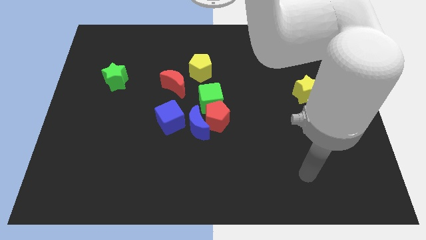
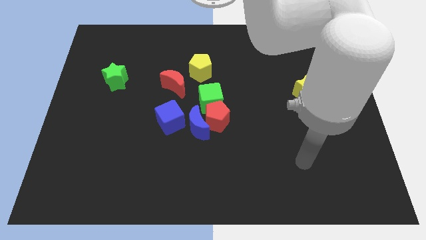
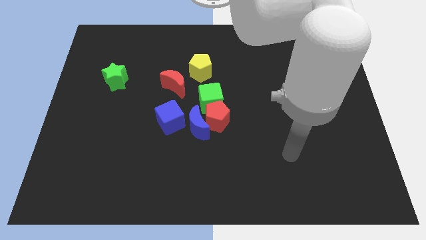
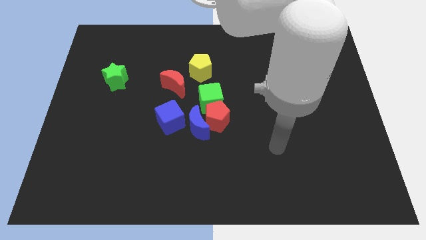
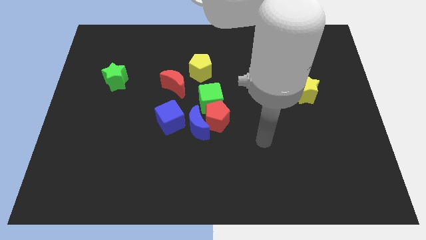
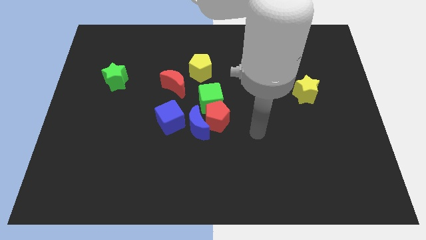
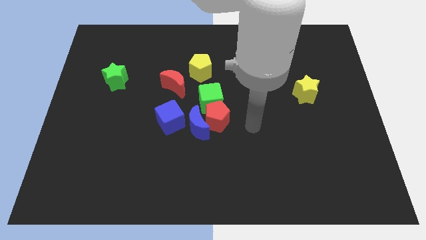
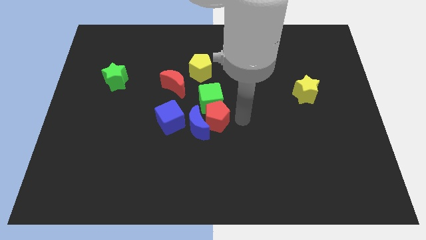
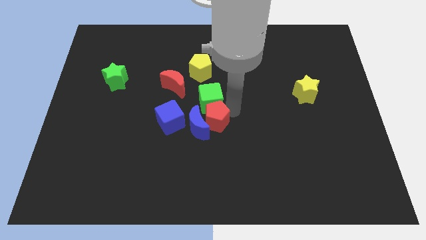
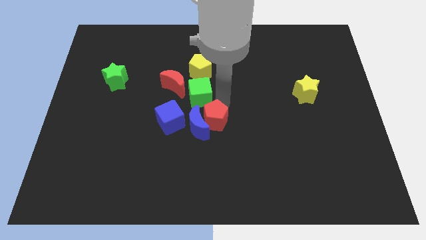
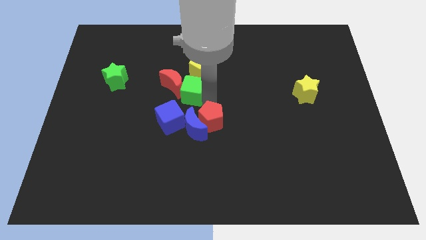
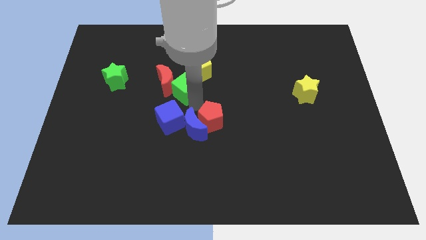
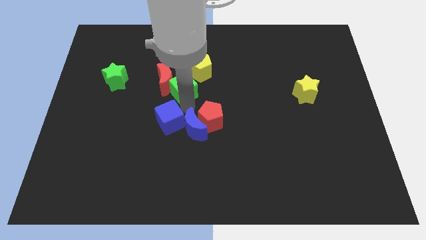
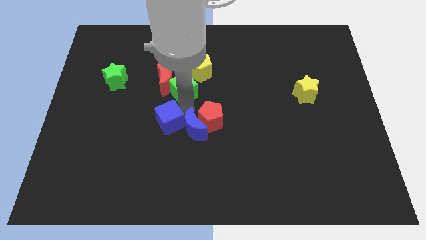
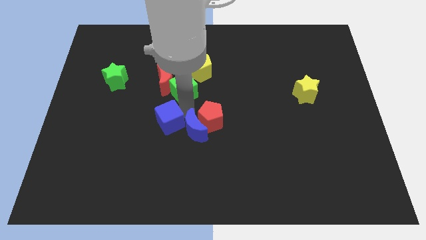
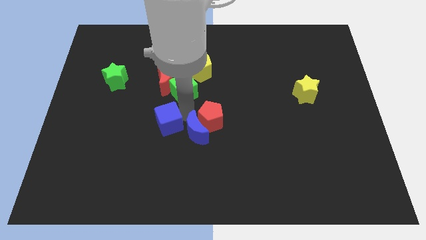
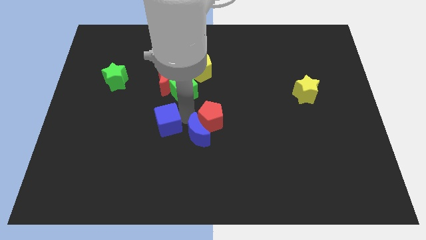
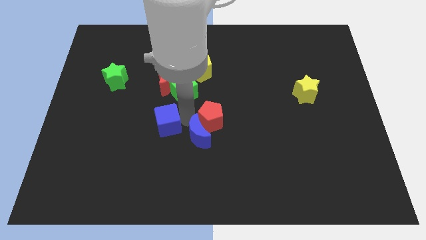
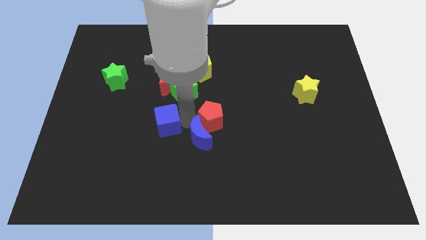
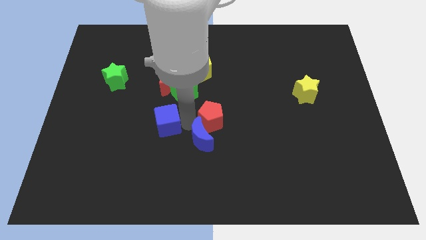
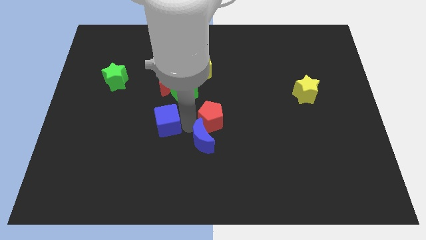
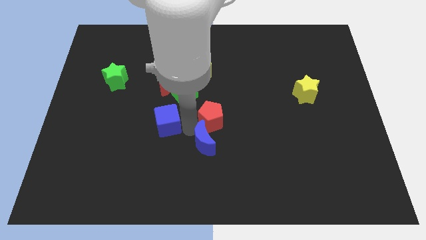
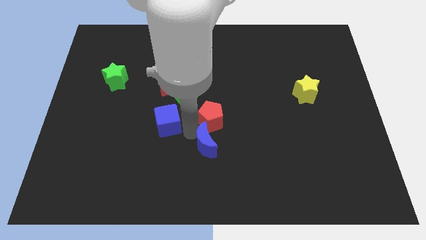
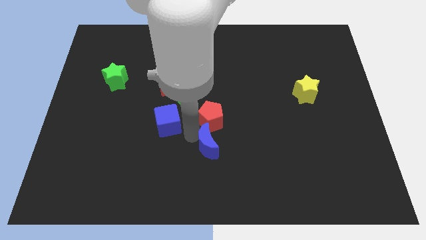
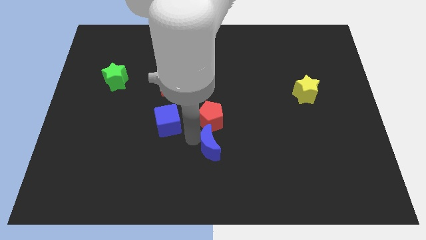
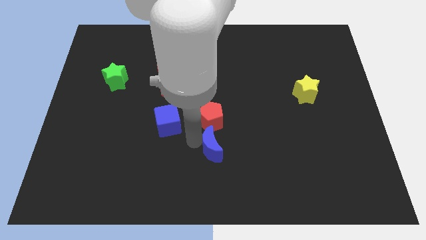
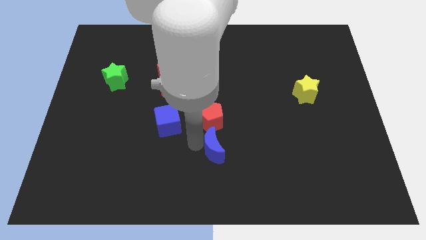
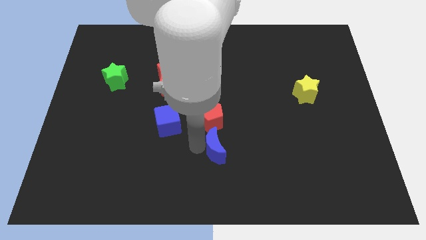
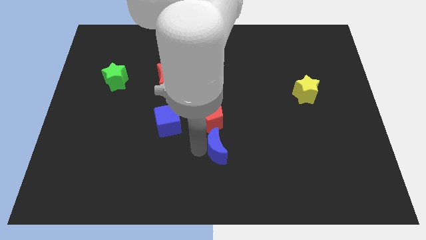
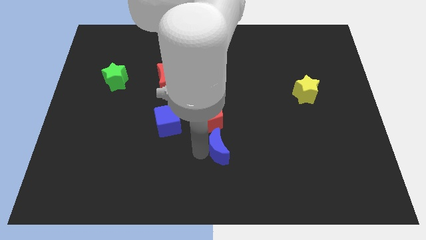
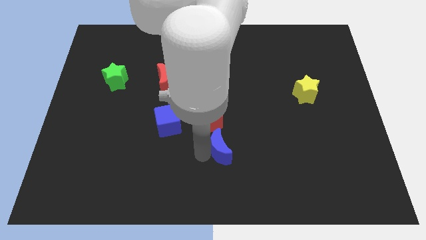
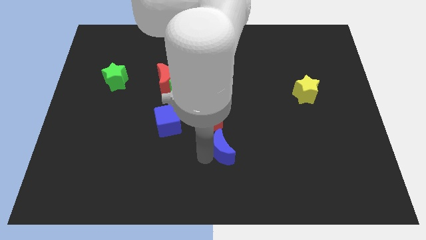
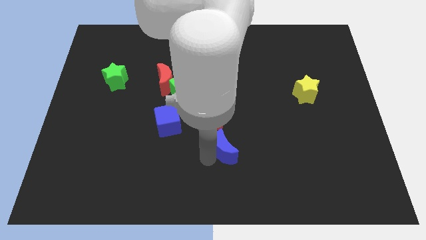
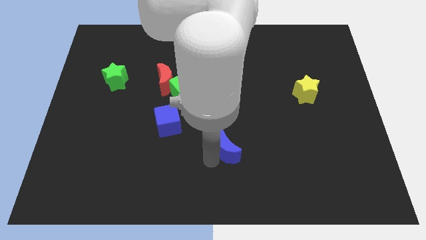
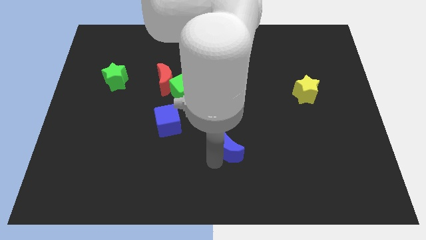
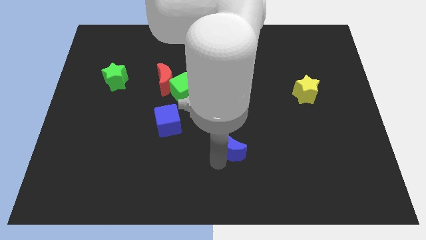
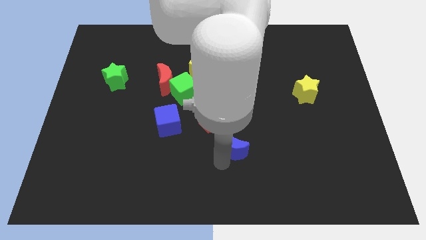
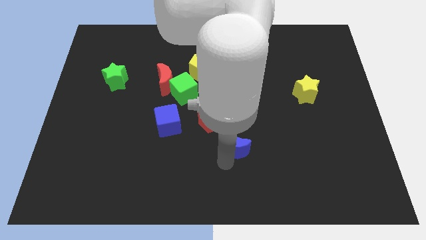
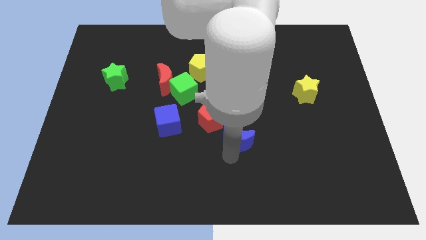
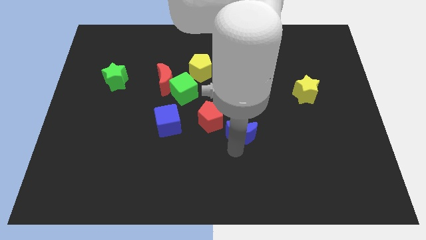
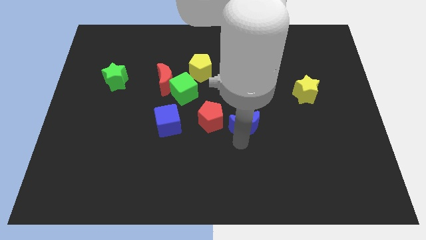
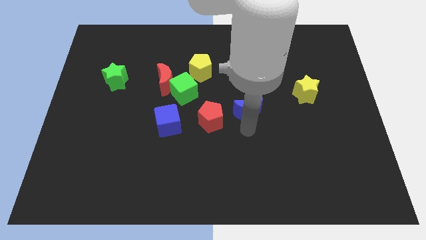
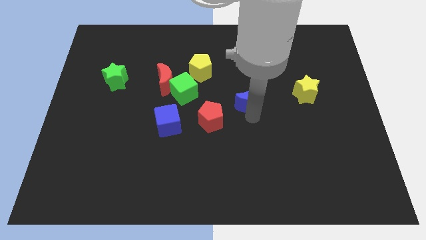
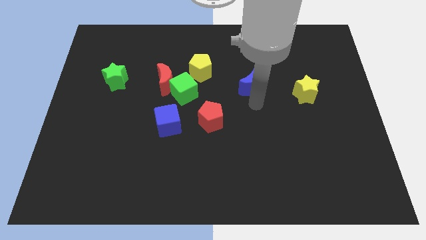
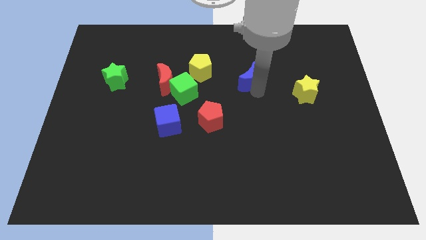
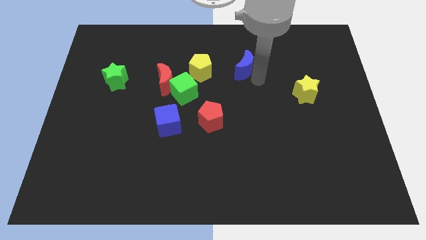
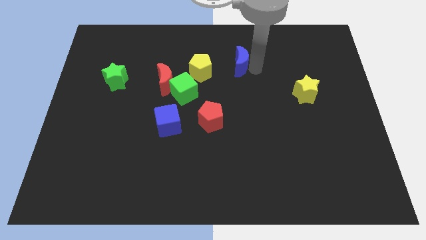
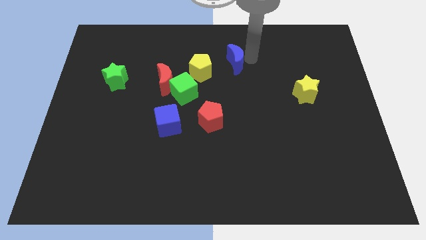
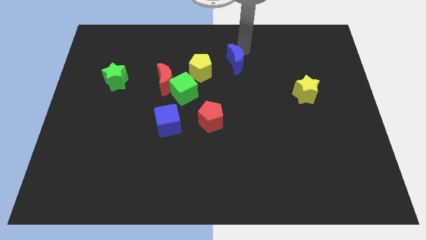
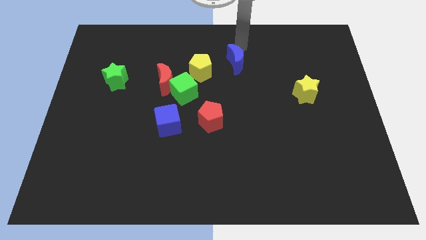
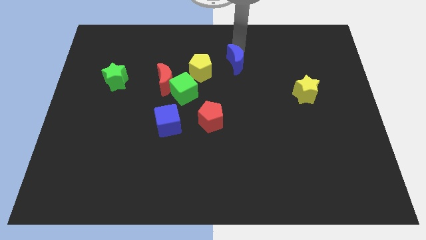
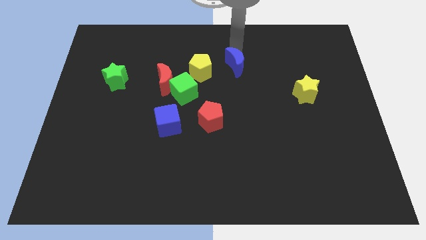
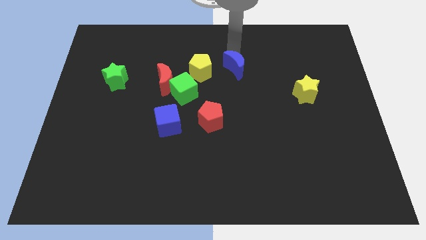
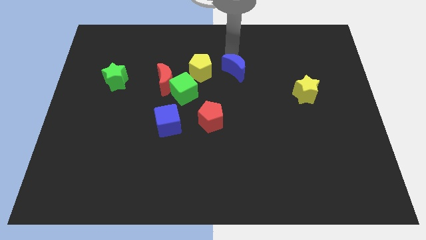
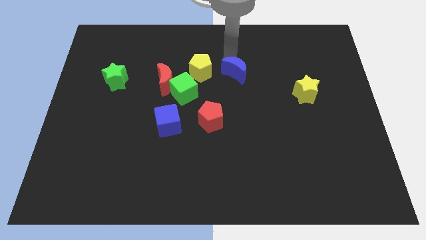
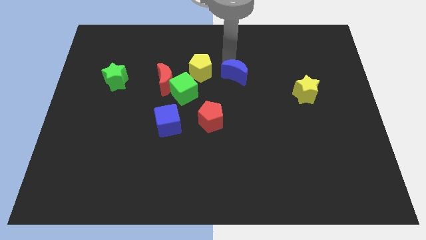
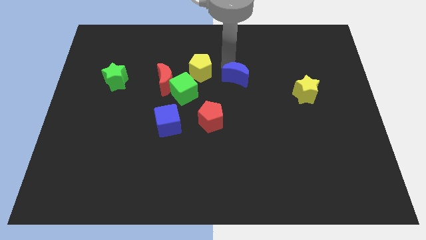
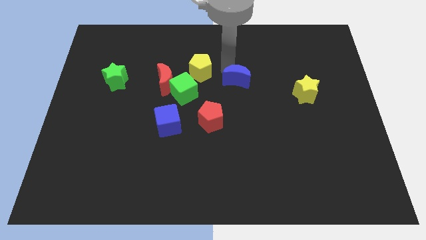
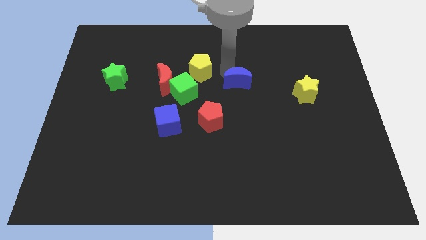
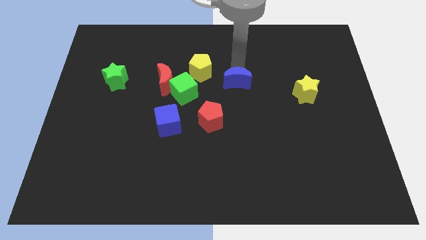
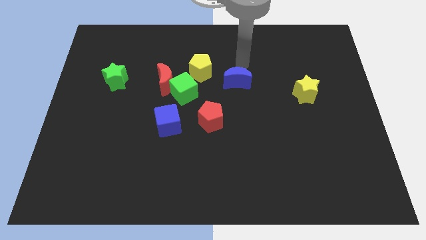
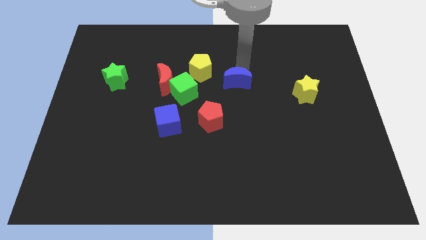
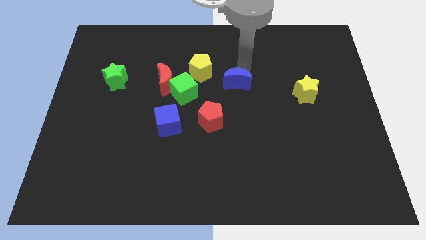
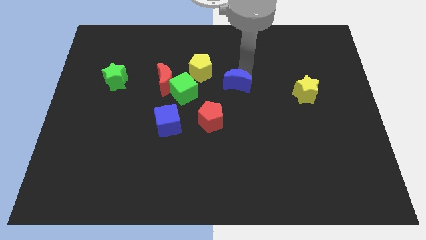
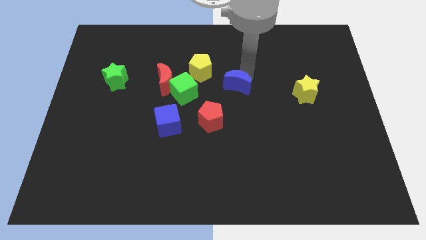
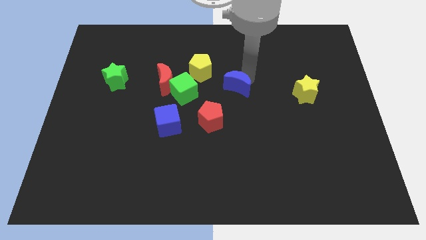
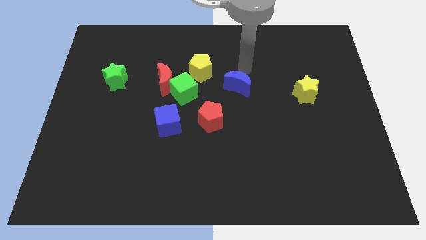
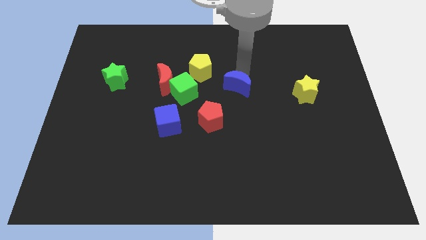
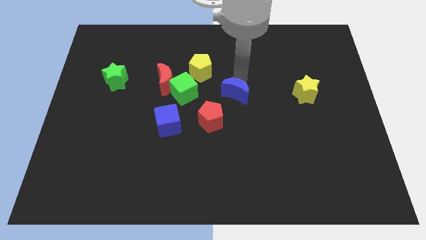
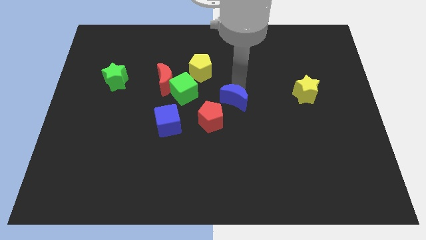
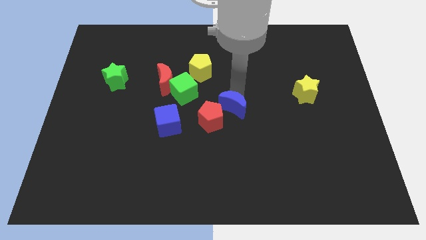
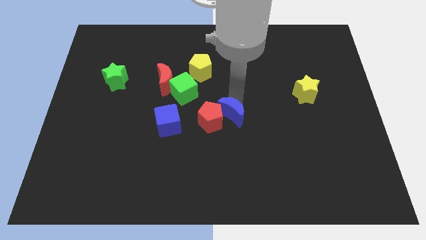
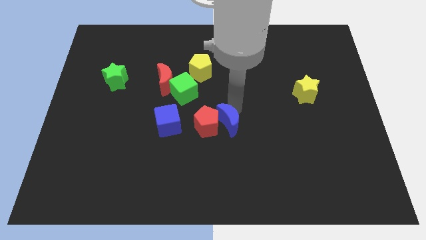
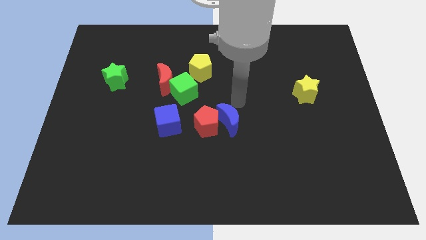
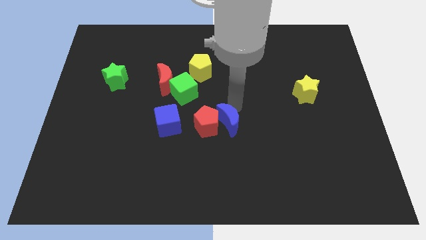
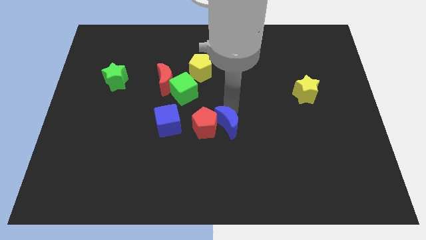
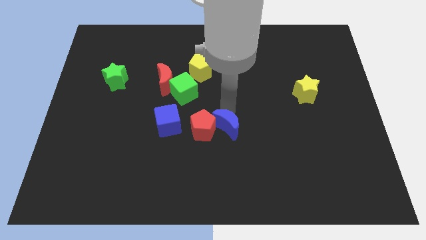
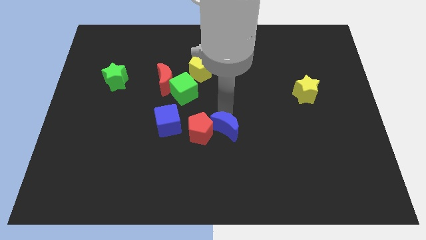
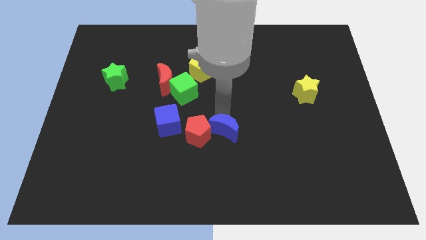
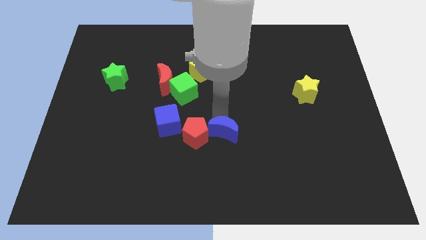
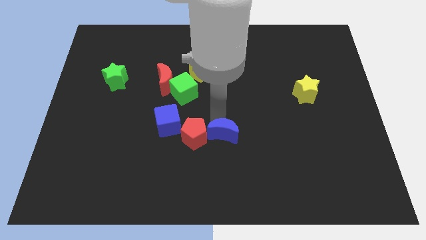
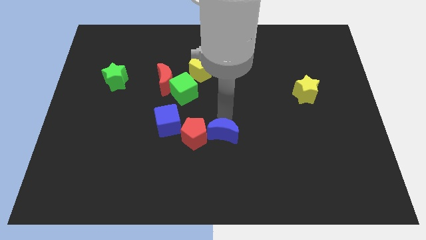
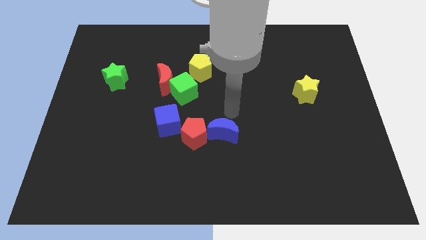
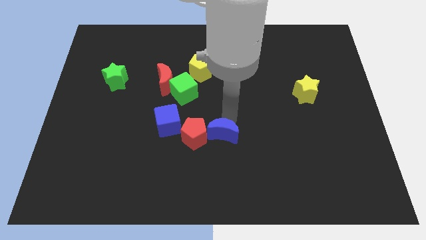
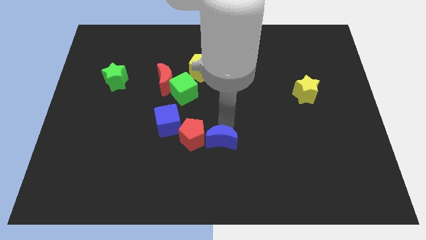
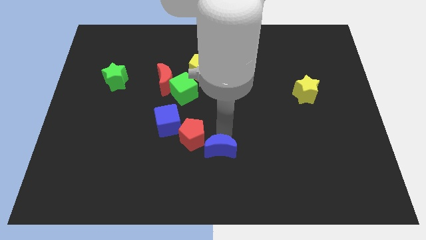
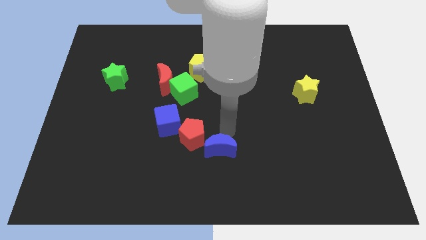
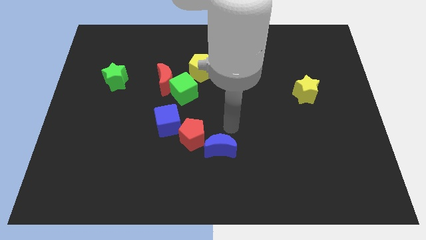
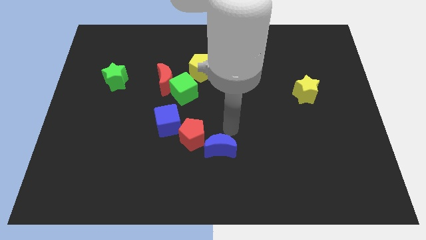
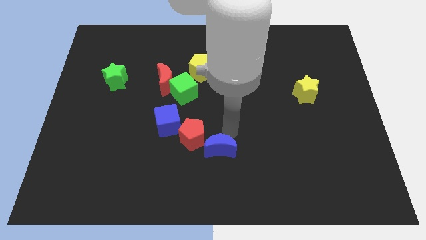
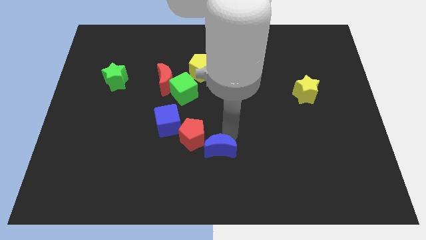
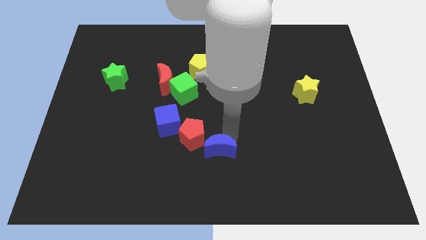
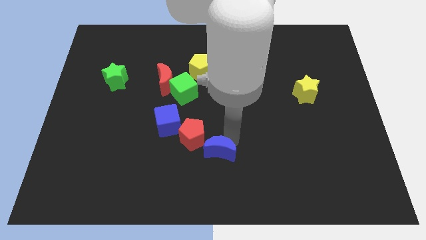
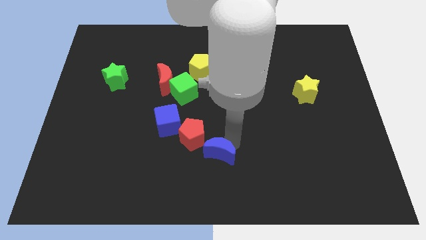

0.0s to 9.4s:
push the blue moon to the bottom side
